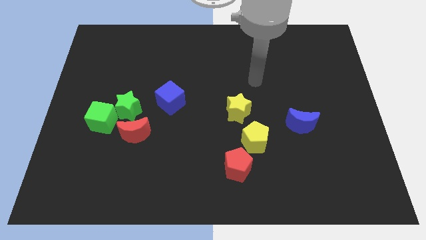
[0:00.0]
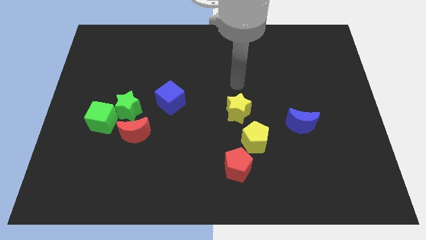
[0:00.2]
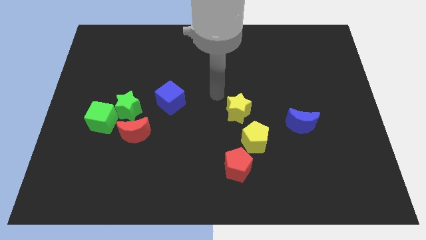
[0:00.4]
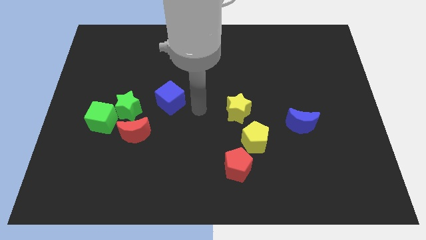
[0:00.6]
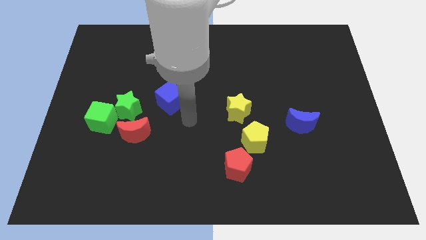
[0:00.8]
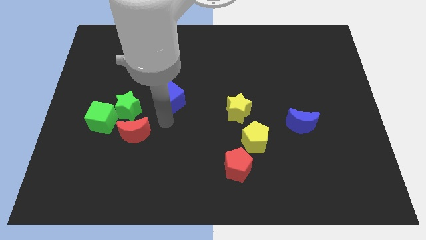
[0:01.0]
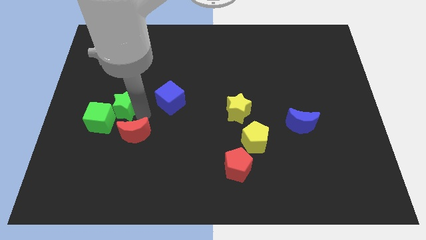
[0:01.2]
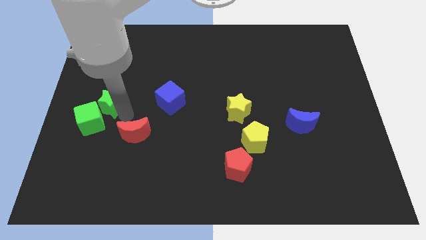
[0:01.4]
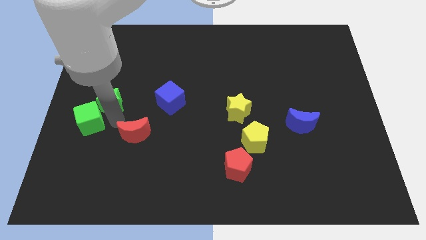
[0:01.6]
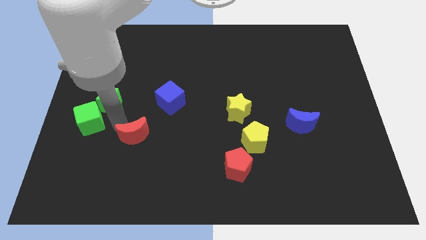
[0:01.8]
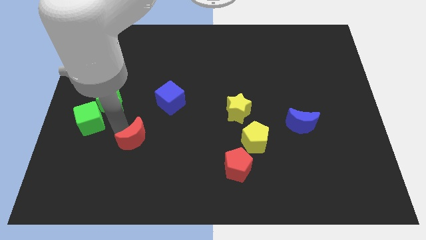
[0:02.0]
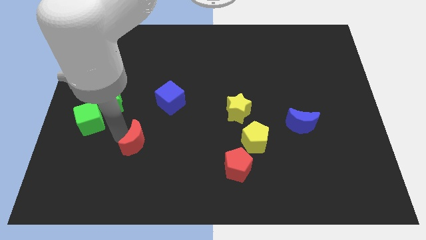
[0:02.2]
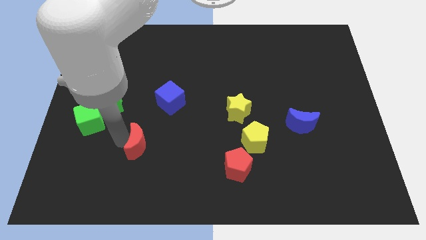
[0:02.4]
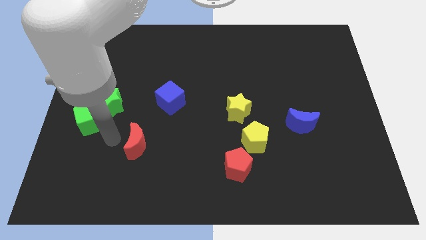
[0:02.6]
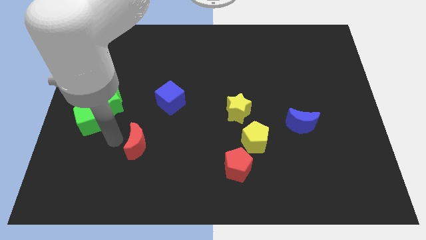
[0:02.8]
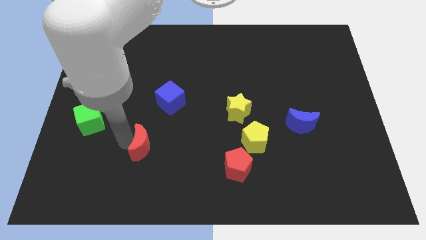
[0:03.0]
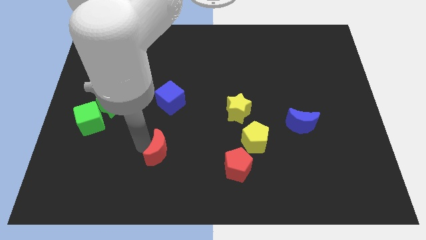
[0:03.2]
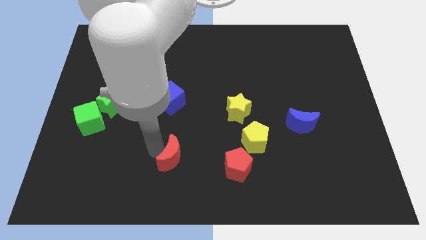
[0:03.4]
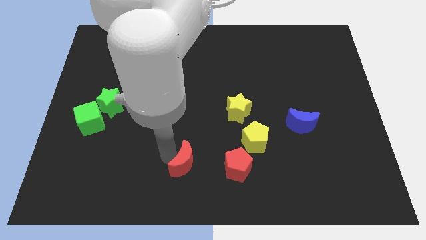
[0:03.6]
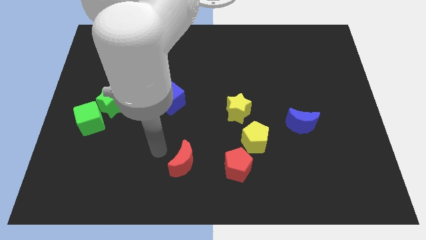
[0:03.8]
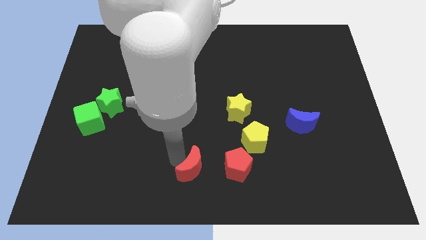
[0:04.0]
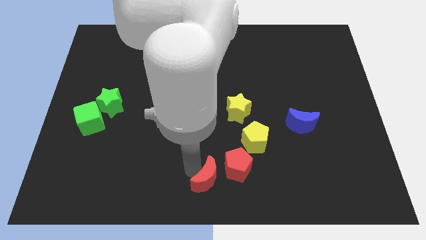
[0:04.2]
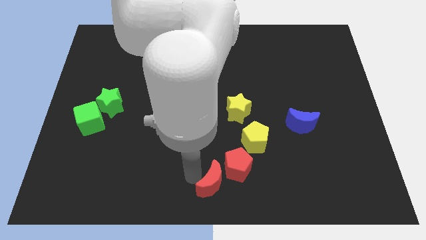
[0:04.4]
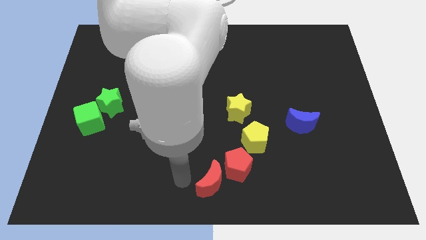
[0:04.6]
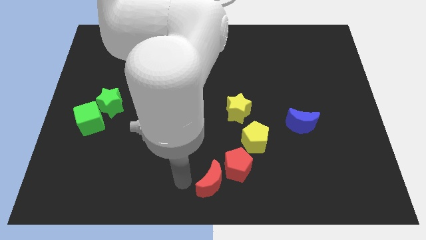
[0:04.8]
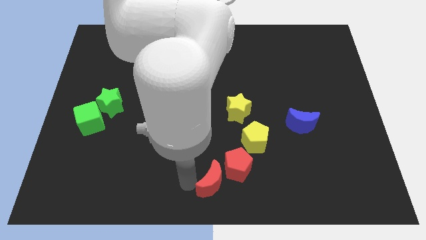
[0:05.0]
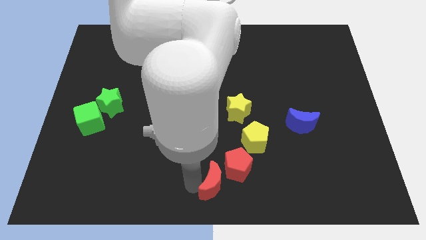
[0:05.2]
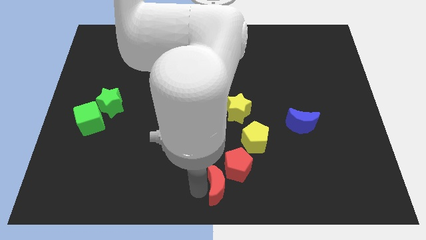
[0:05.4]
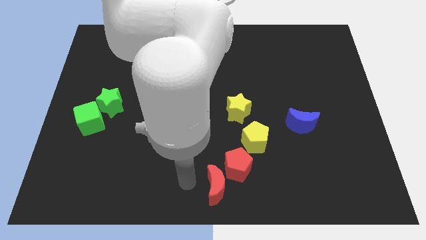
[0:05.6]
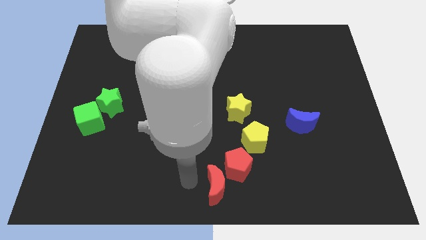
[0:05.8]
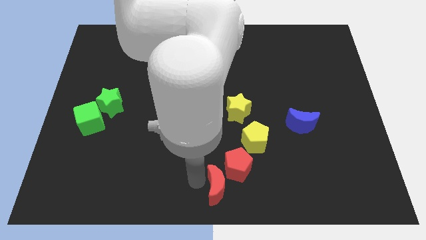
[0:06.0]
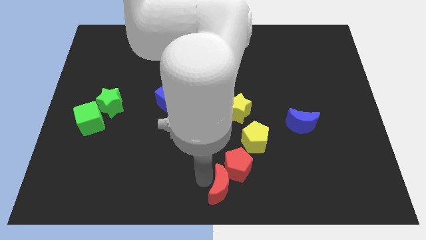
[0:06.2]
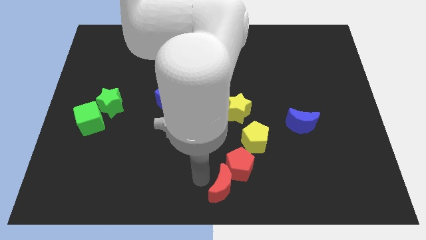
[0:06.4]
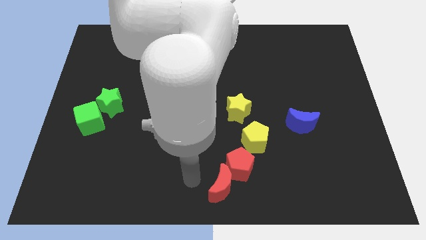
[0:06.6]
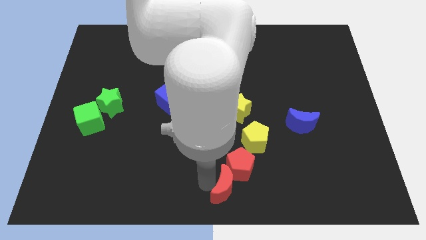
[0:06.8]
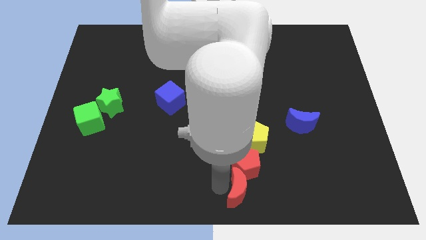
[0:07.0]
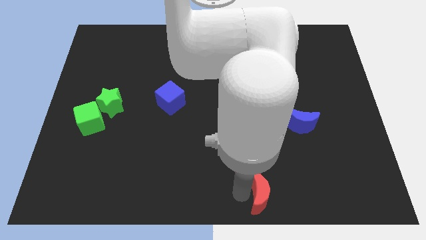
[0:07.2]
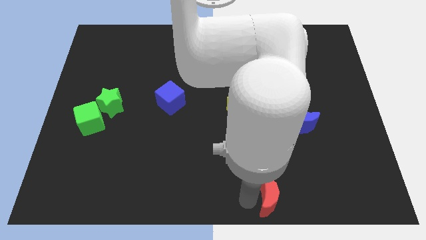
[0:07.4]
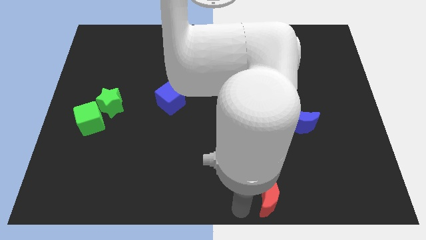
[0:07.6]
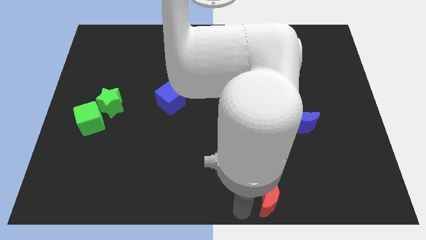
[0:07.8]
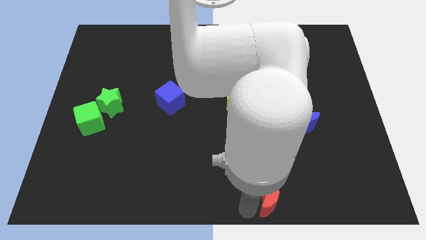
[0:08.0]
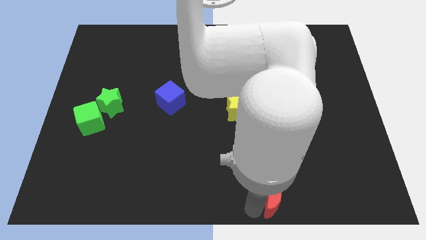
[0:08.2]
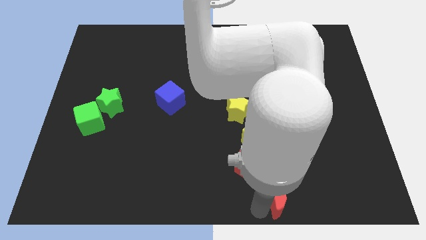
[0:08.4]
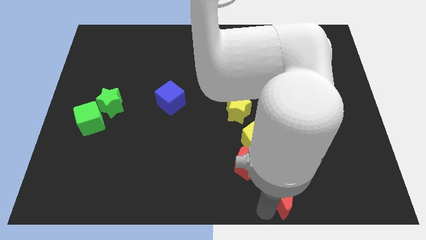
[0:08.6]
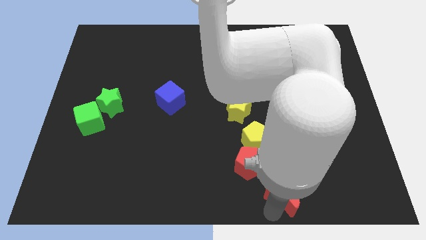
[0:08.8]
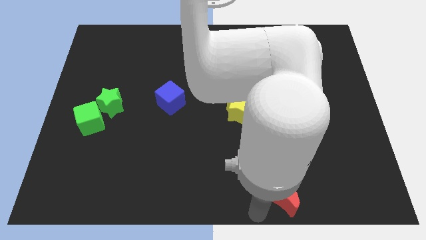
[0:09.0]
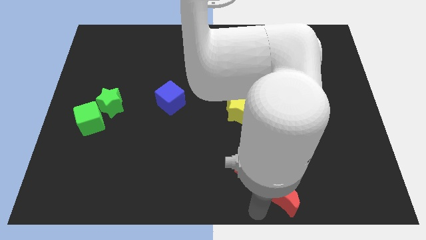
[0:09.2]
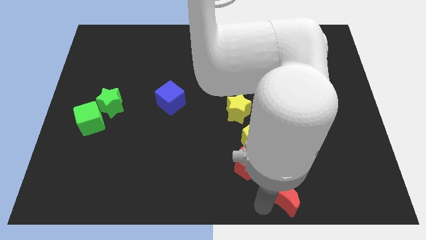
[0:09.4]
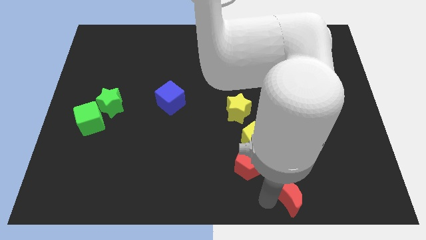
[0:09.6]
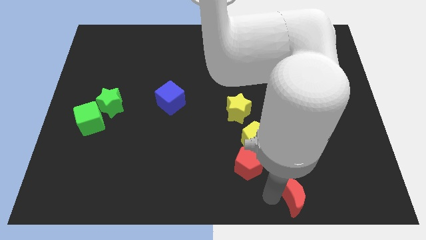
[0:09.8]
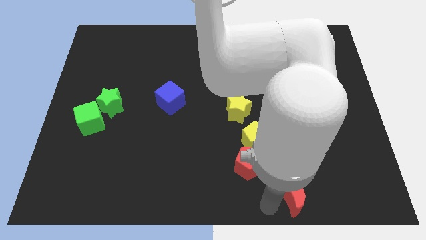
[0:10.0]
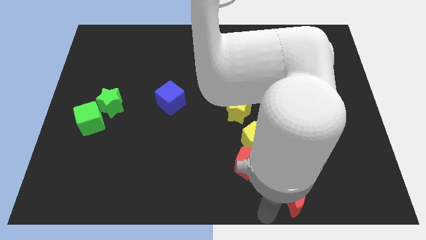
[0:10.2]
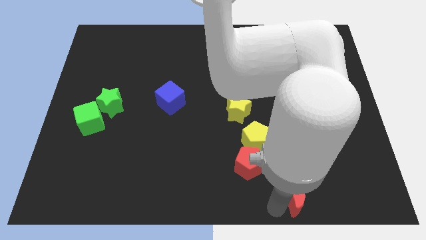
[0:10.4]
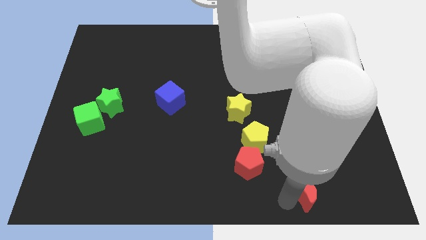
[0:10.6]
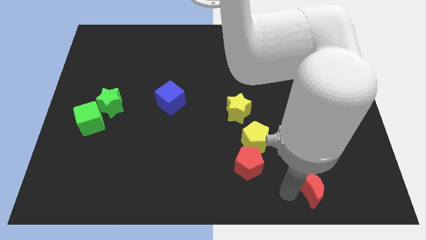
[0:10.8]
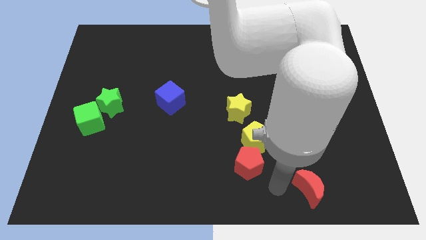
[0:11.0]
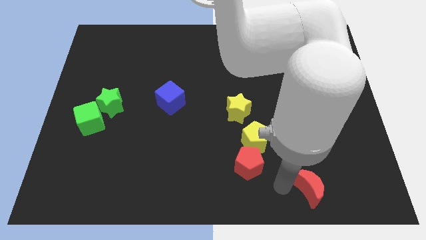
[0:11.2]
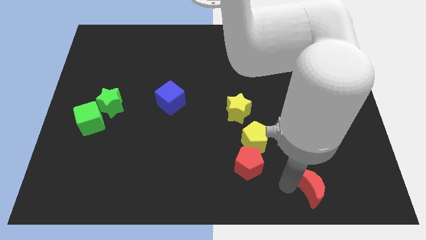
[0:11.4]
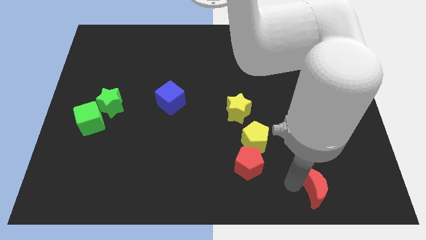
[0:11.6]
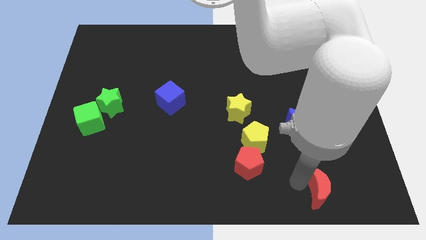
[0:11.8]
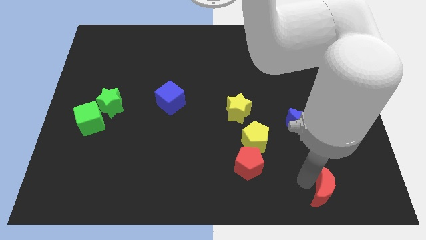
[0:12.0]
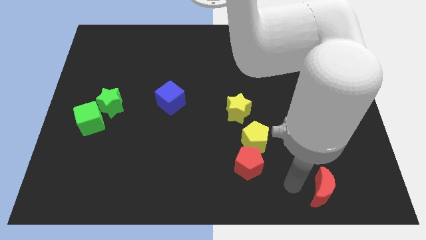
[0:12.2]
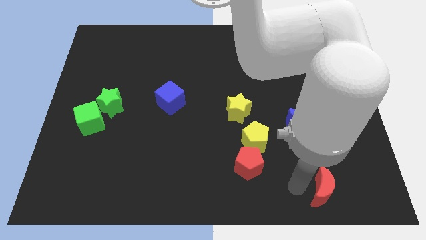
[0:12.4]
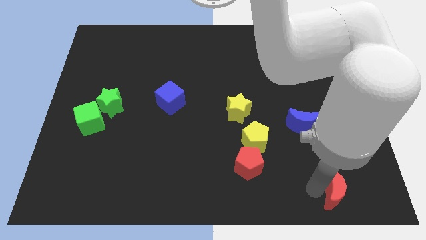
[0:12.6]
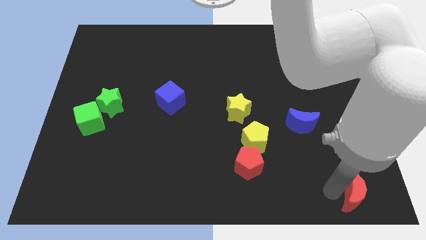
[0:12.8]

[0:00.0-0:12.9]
slide the red moon to the bottom right
